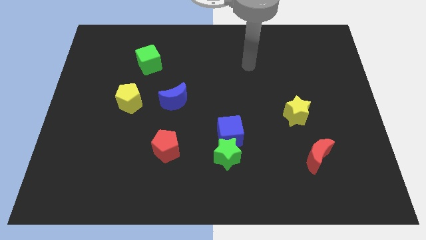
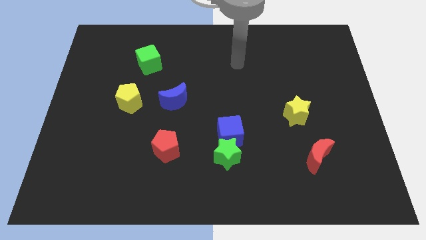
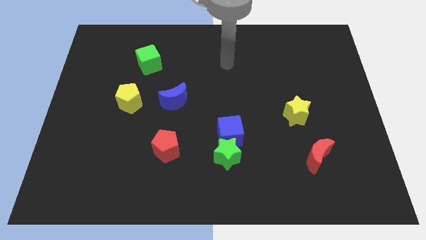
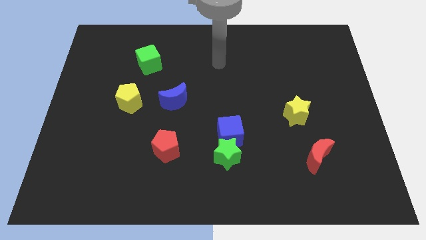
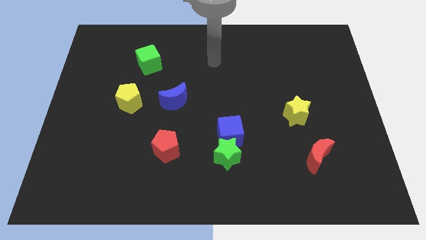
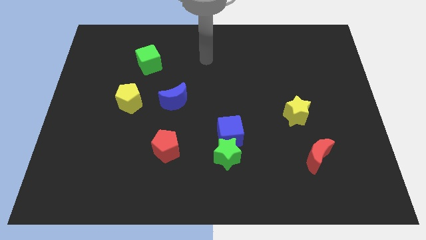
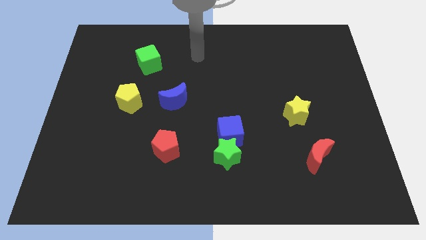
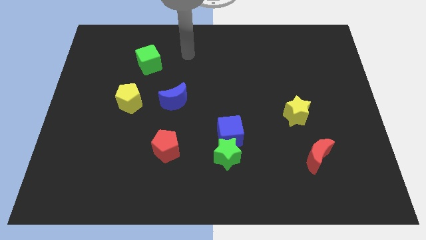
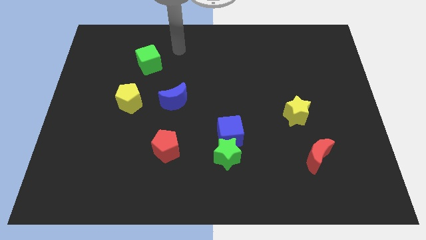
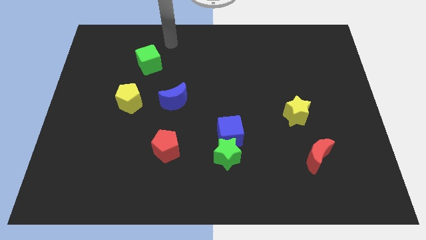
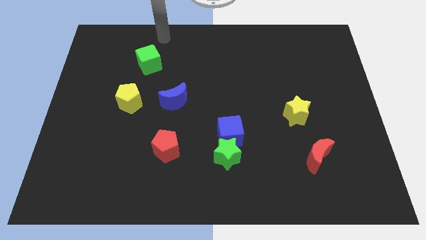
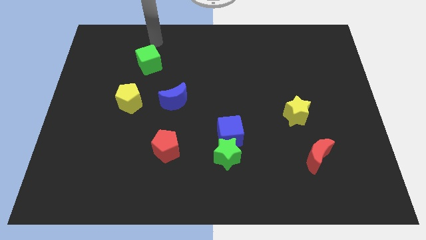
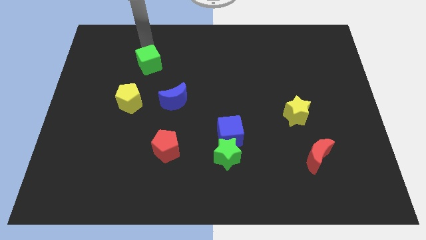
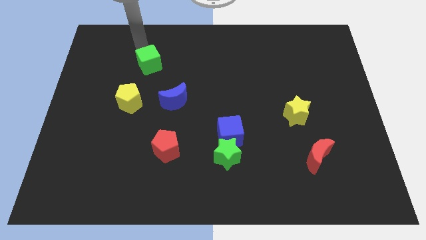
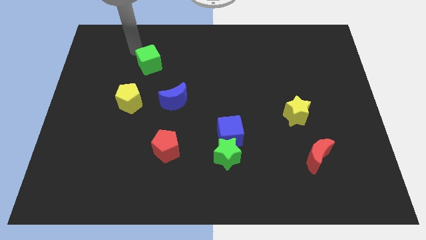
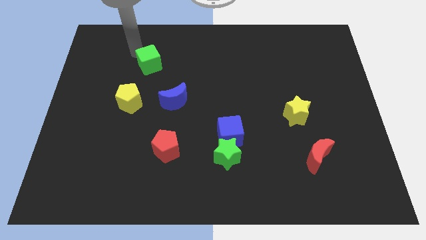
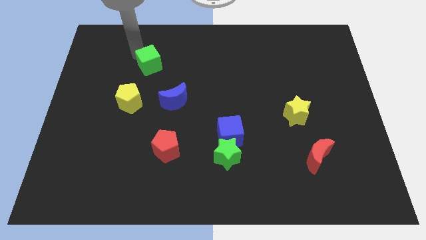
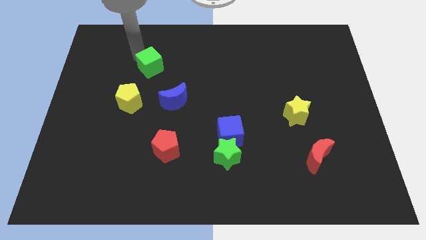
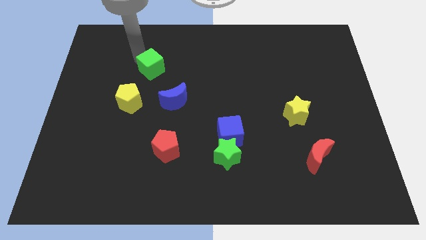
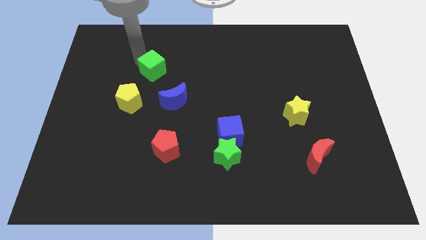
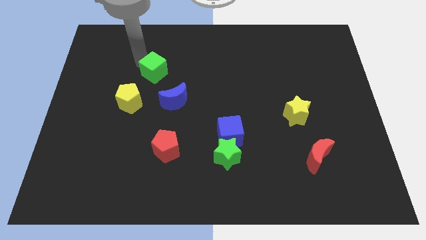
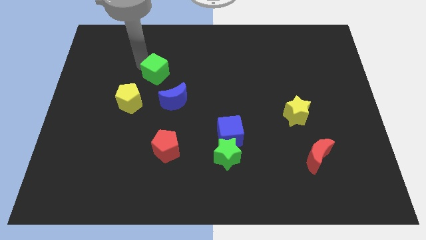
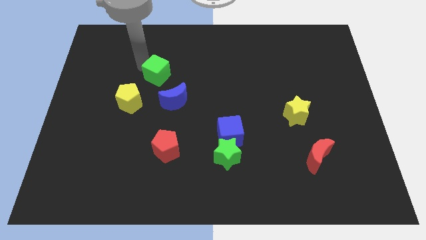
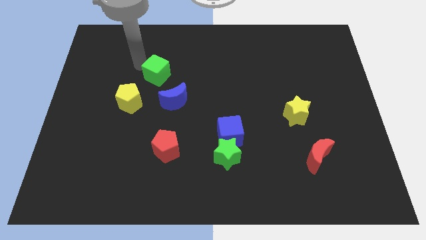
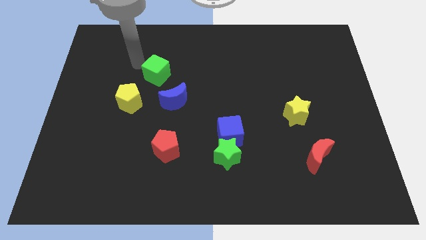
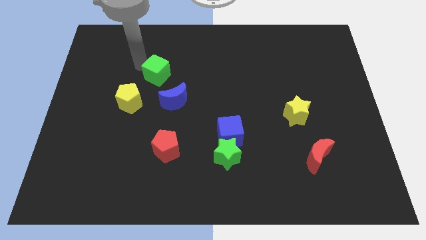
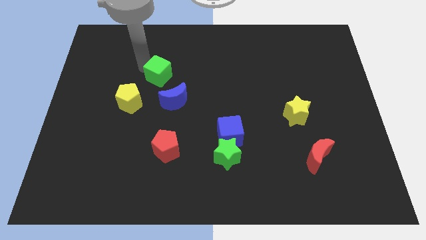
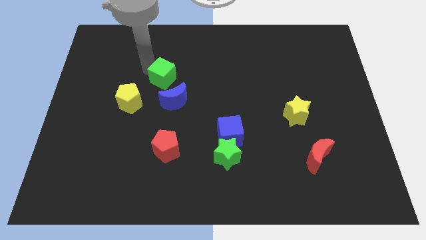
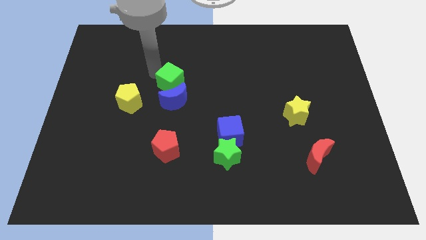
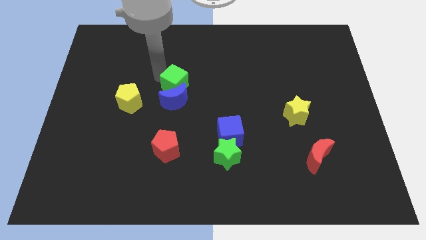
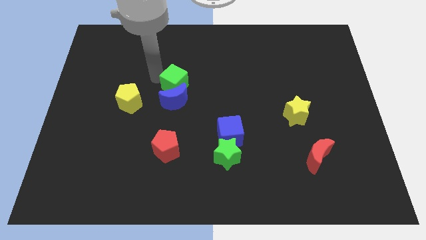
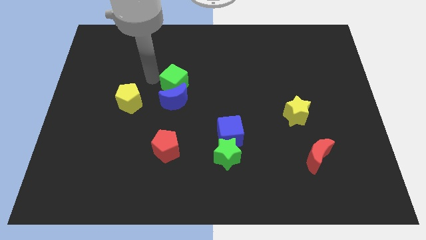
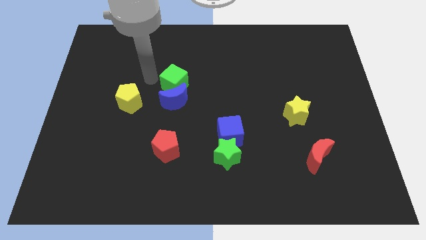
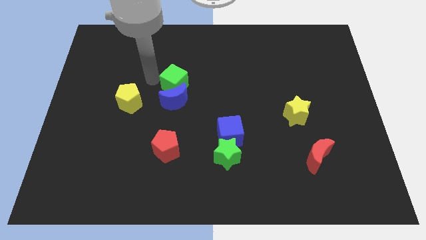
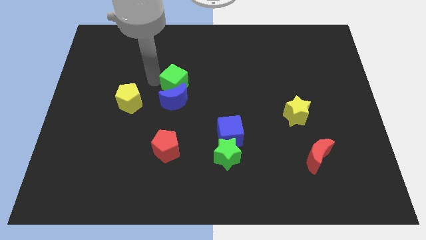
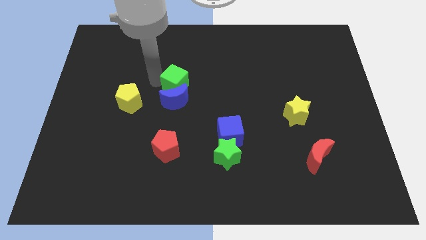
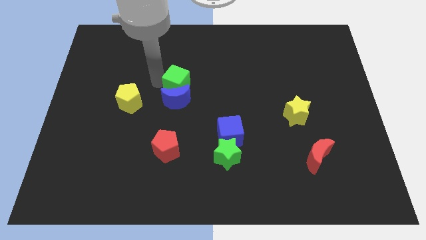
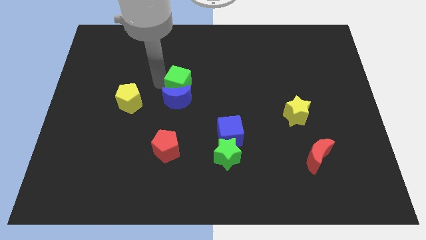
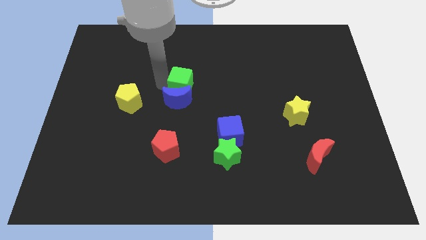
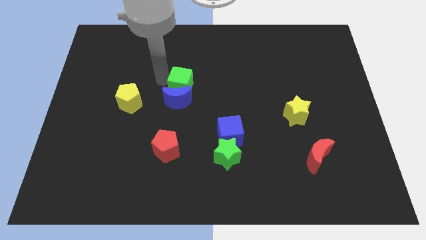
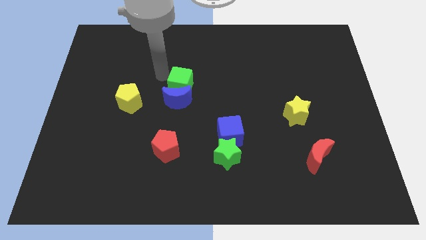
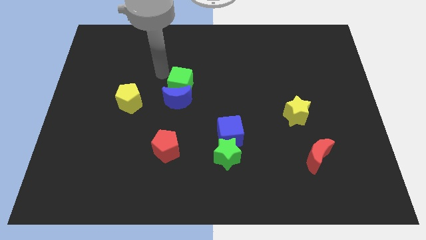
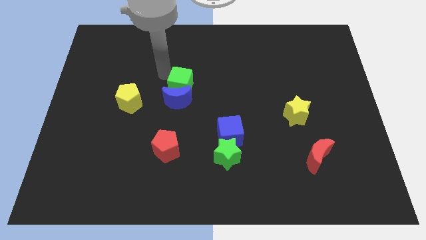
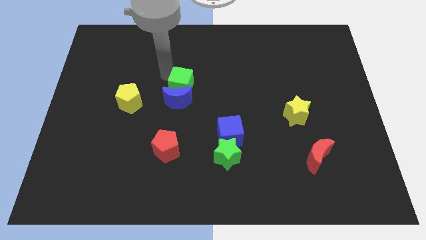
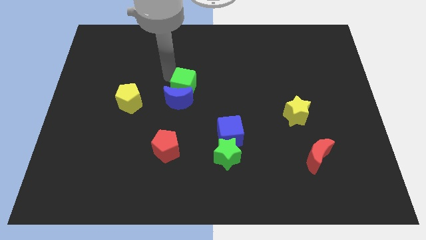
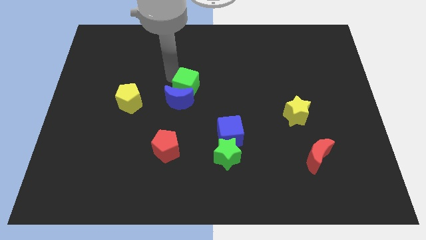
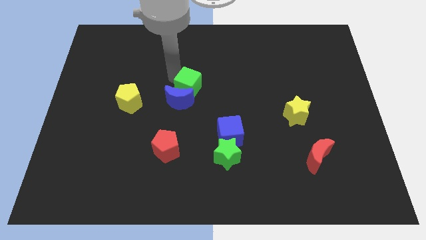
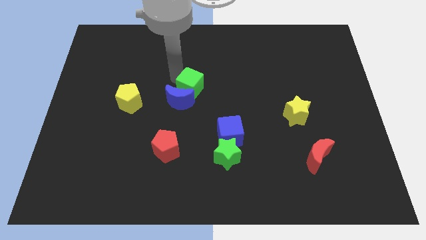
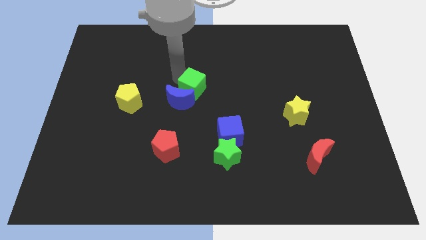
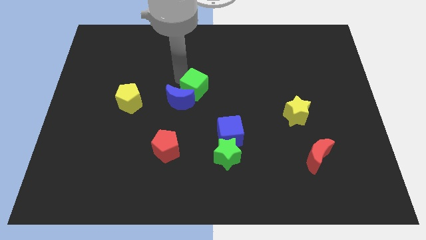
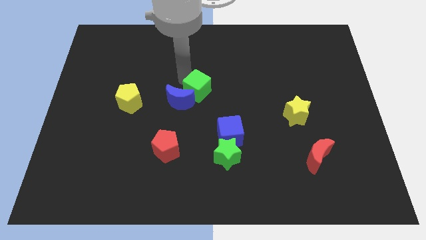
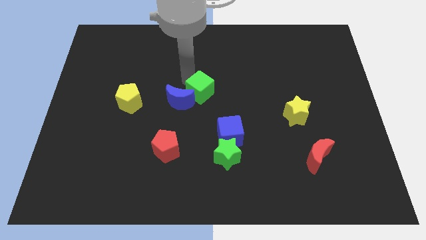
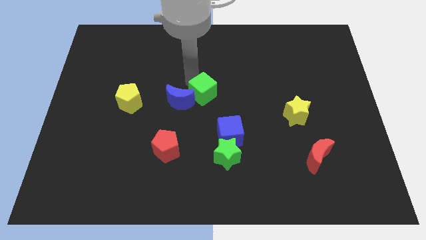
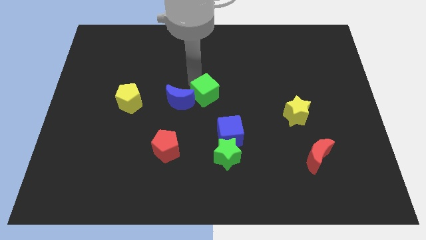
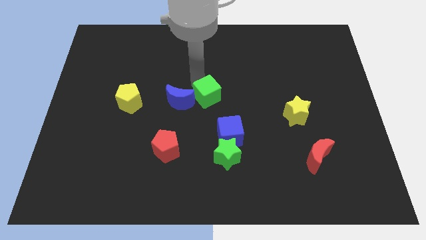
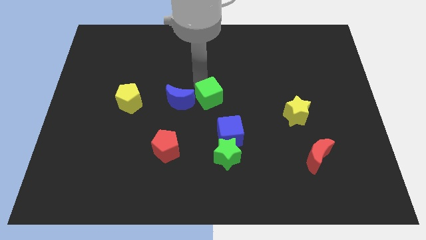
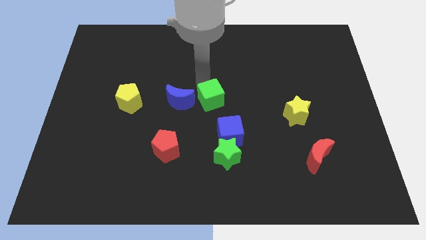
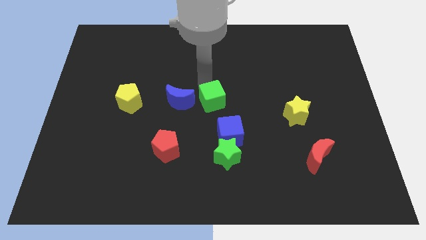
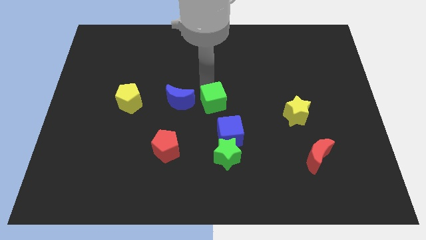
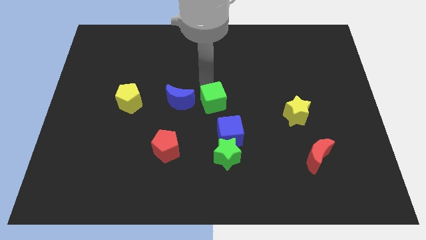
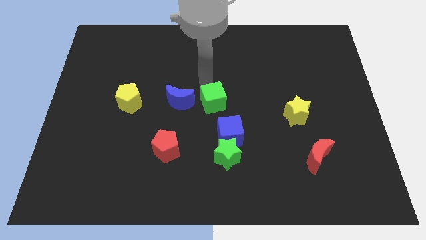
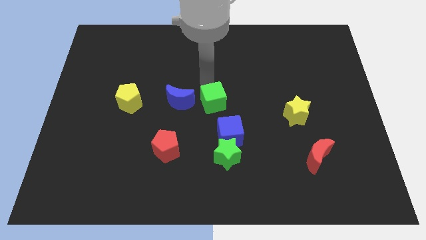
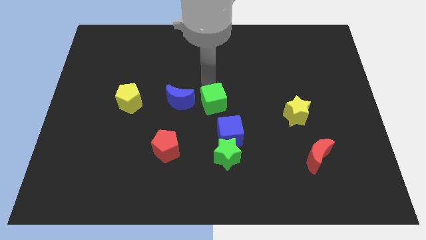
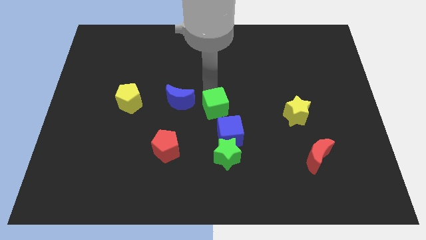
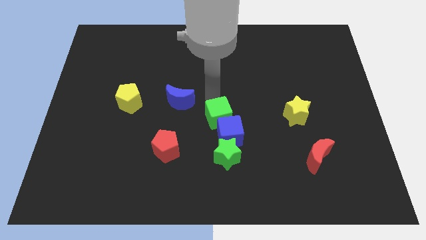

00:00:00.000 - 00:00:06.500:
slide the green cube close to the blue cube

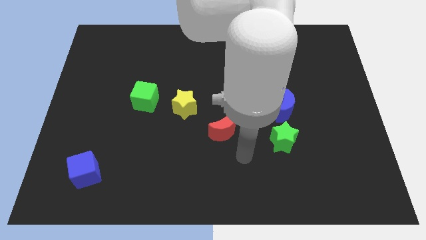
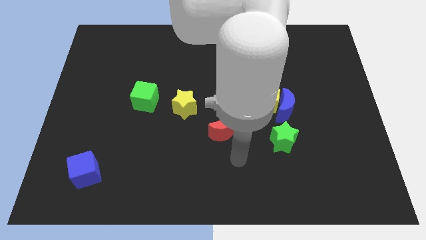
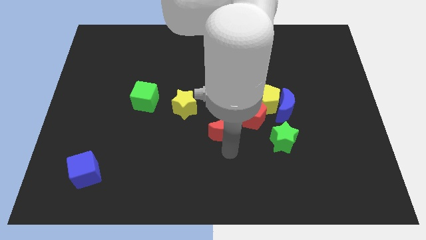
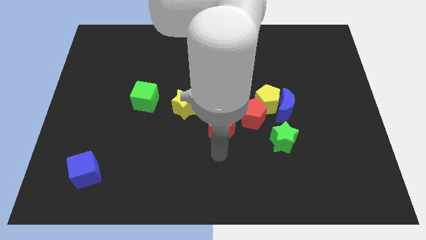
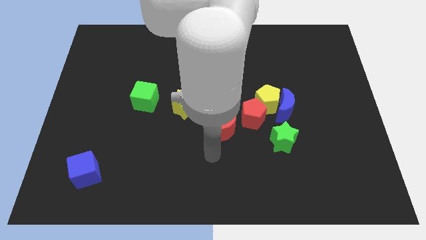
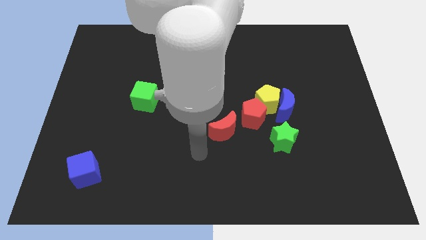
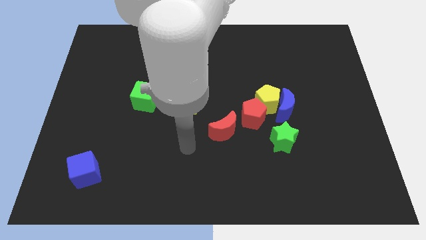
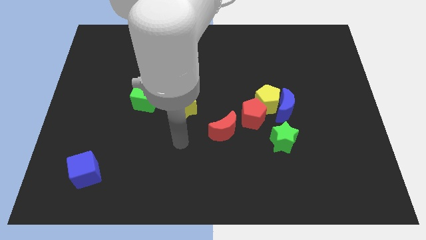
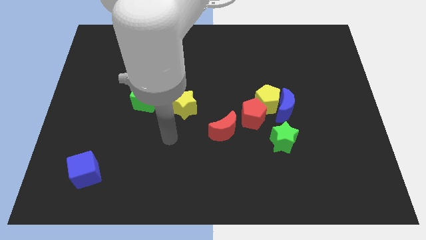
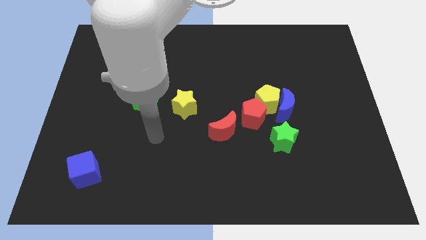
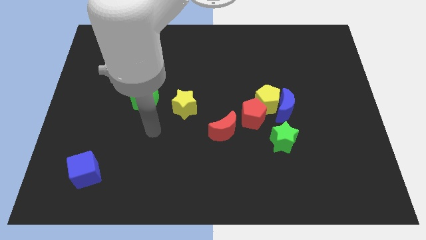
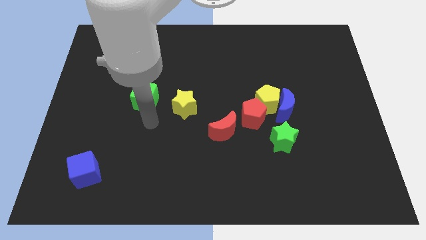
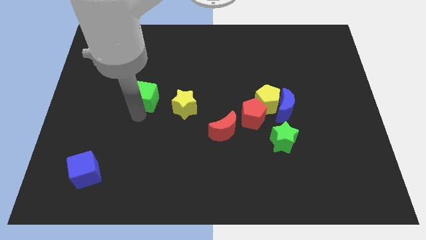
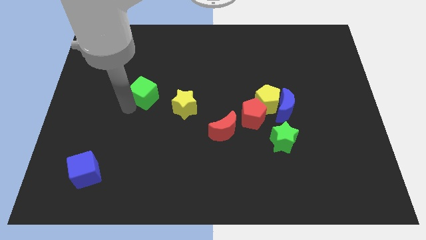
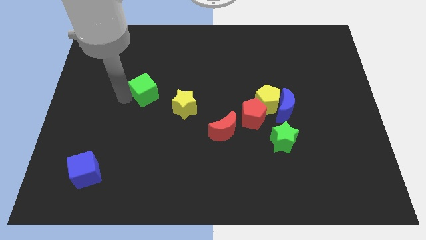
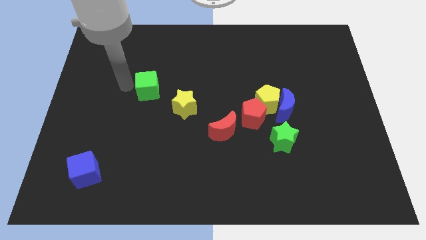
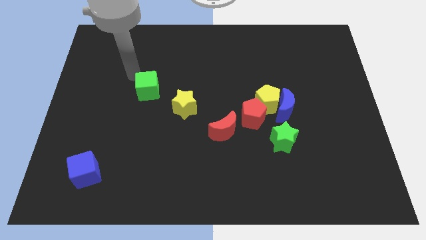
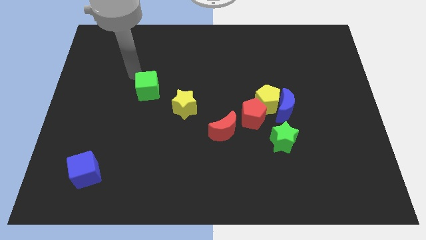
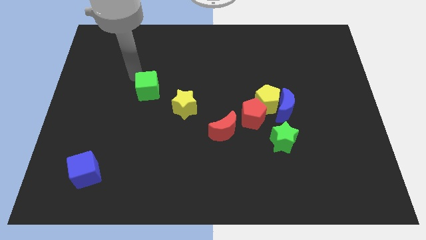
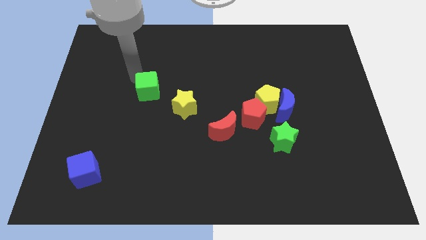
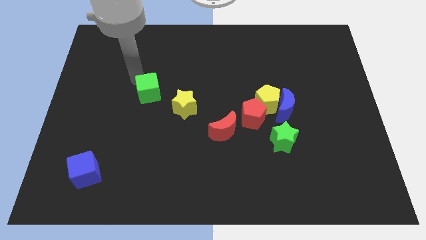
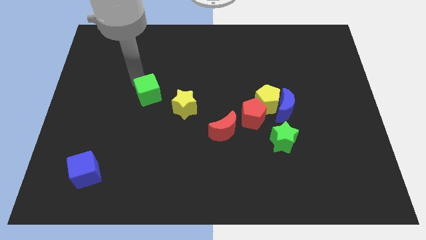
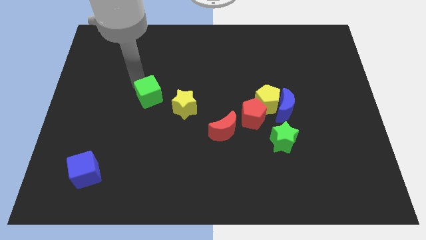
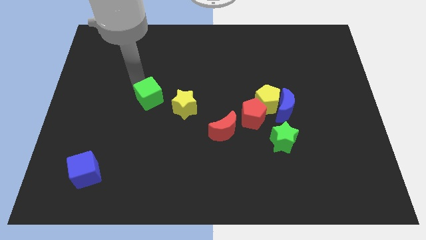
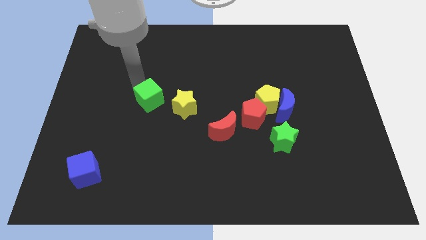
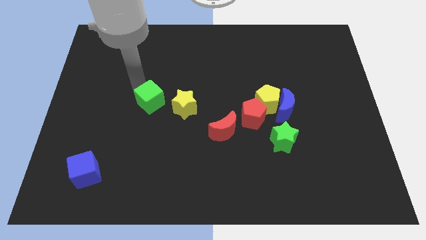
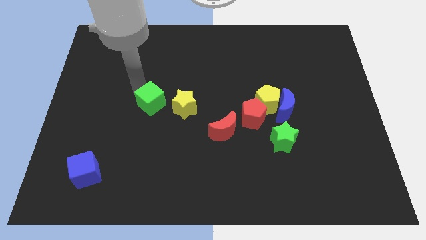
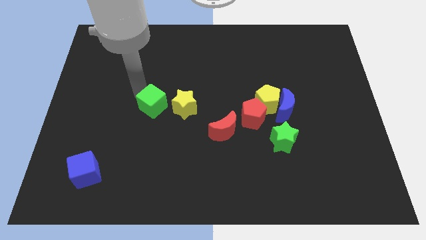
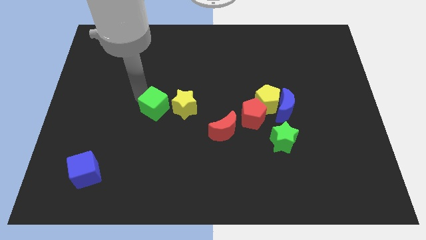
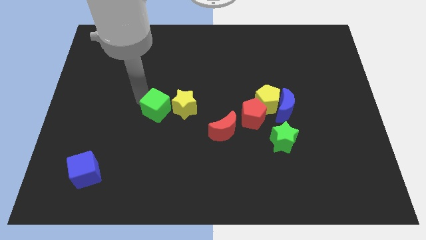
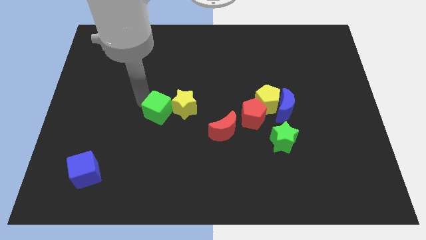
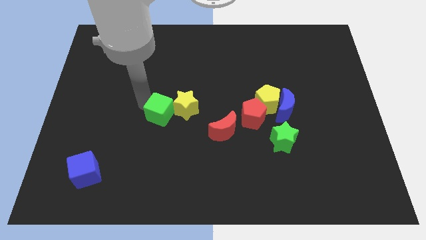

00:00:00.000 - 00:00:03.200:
slide the green cube towards the yellow star
